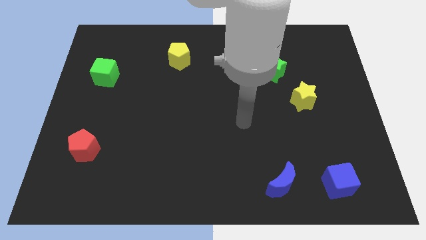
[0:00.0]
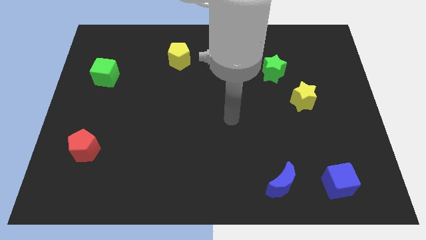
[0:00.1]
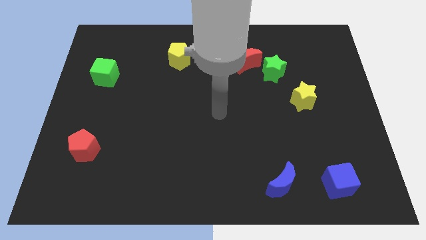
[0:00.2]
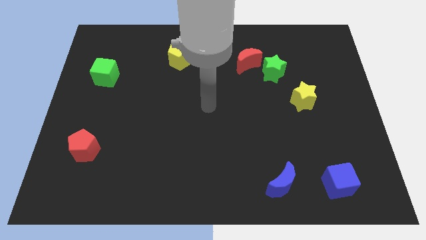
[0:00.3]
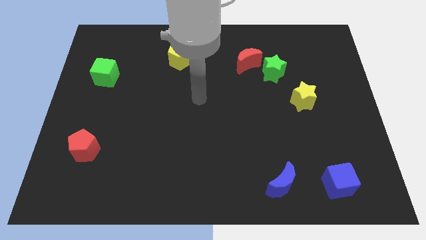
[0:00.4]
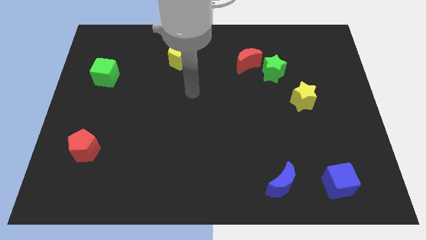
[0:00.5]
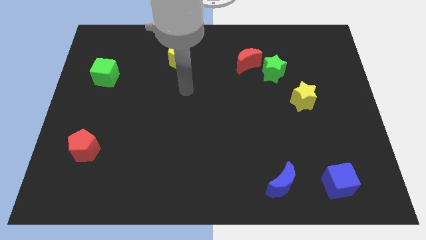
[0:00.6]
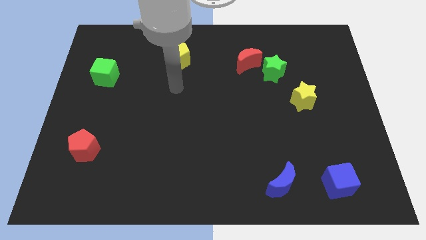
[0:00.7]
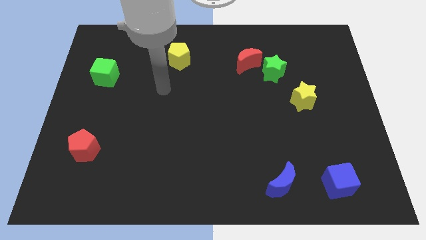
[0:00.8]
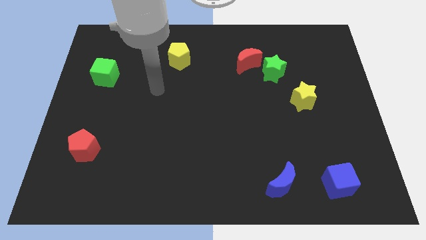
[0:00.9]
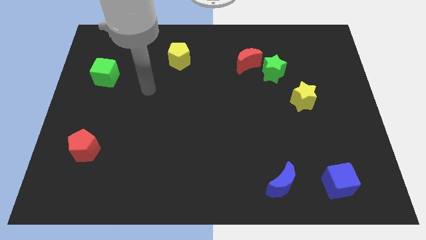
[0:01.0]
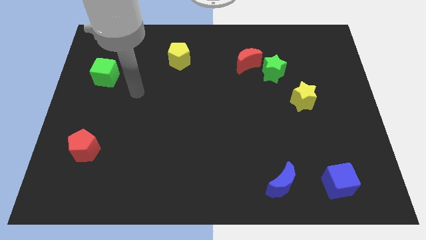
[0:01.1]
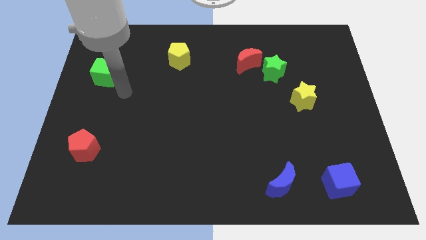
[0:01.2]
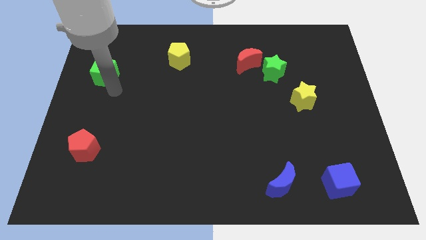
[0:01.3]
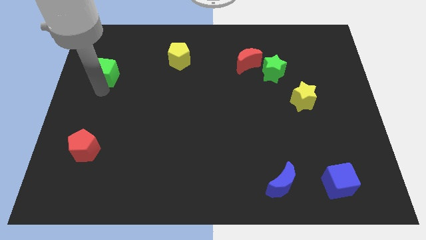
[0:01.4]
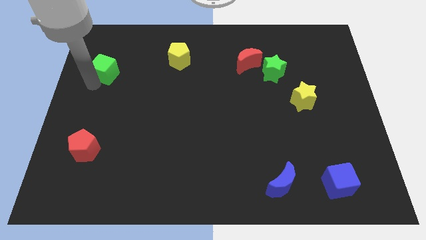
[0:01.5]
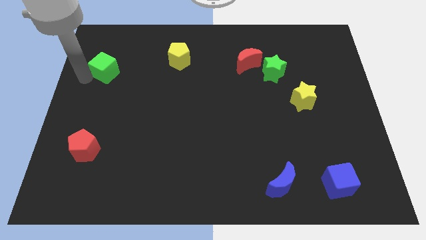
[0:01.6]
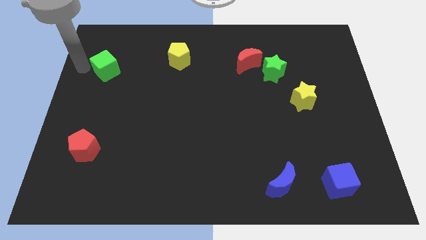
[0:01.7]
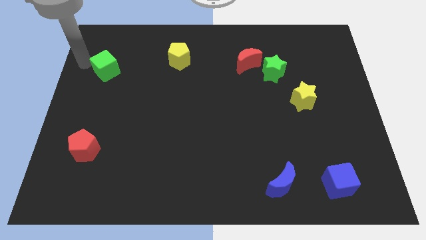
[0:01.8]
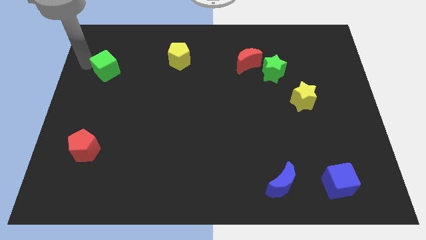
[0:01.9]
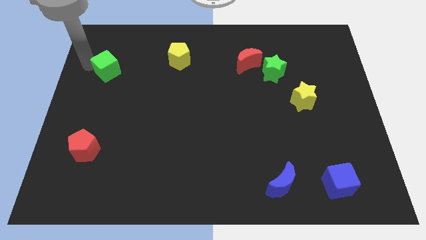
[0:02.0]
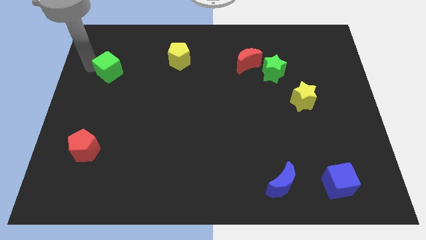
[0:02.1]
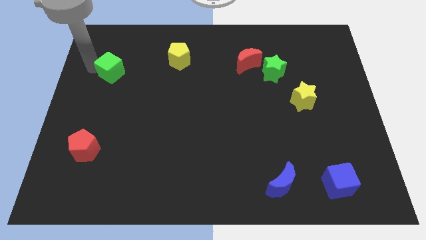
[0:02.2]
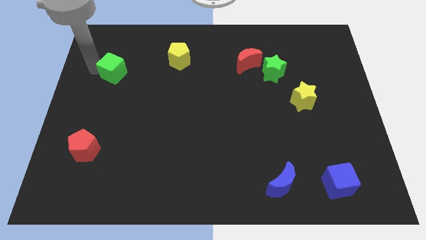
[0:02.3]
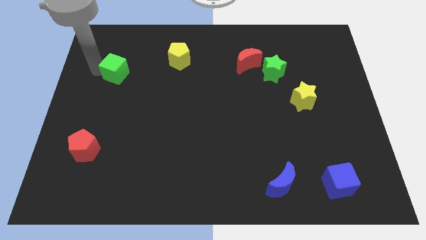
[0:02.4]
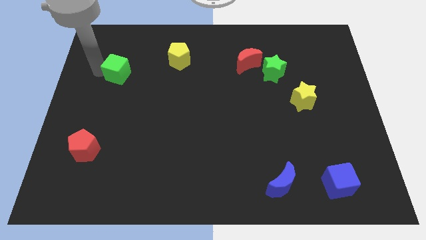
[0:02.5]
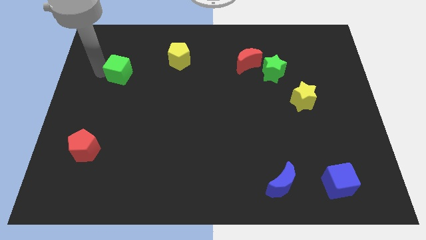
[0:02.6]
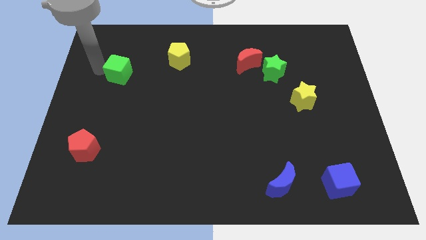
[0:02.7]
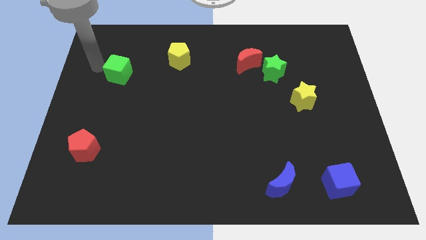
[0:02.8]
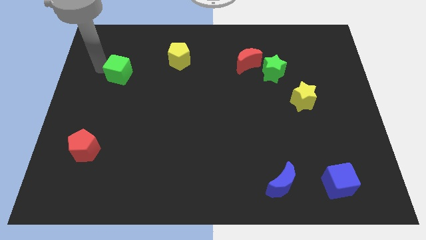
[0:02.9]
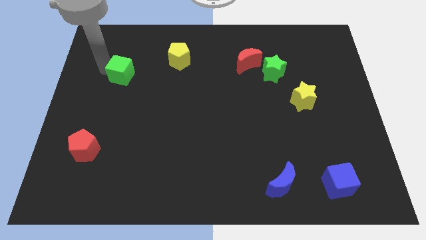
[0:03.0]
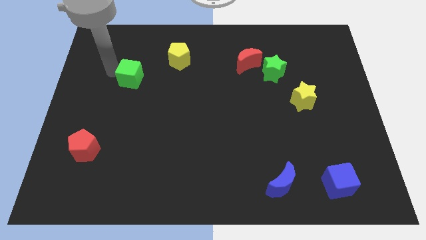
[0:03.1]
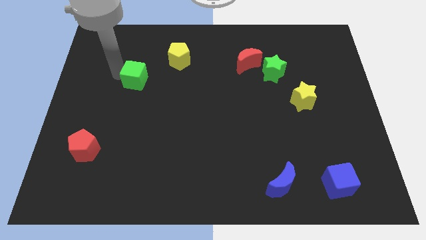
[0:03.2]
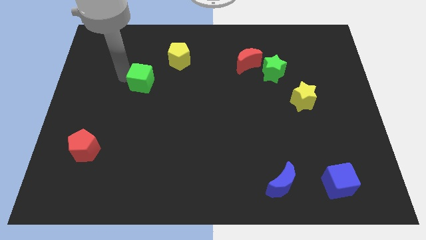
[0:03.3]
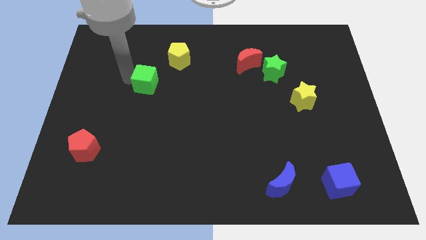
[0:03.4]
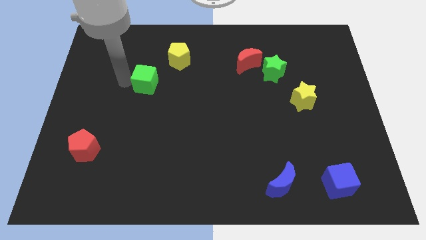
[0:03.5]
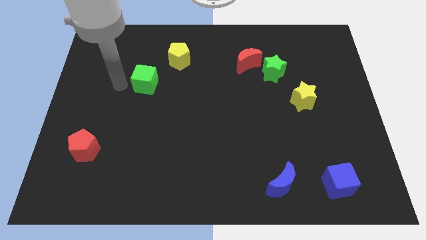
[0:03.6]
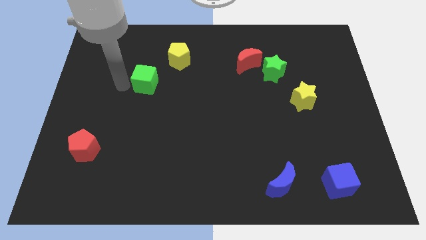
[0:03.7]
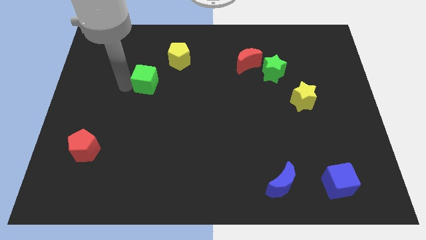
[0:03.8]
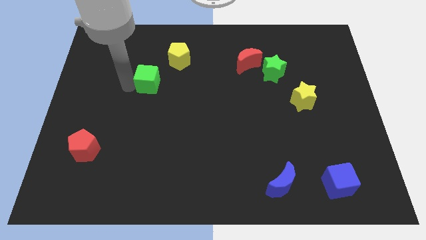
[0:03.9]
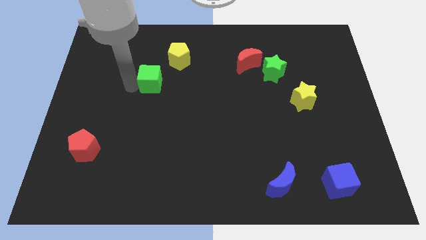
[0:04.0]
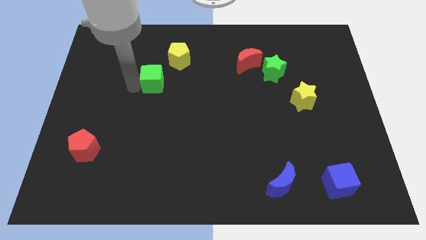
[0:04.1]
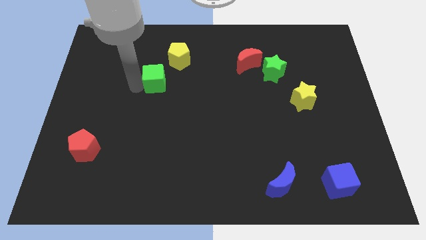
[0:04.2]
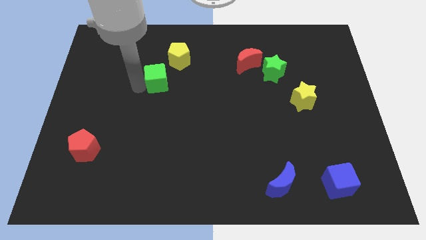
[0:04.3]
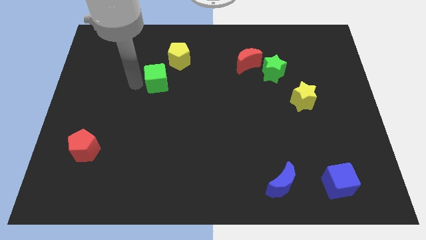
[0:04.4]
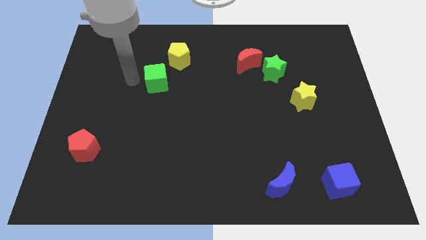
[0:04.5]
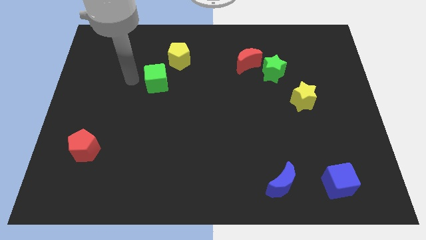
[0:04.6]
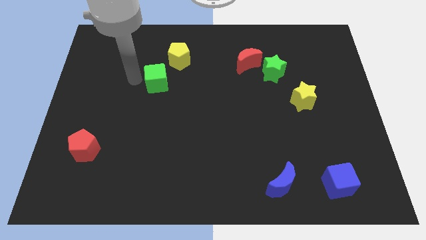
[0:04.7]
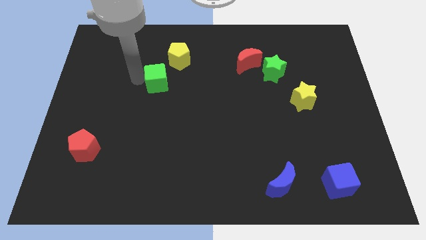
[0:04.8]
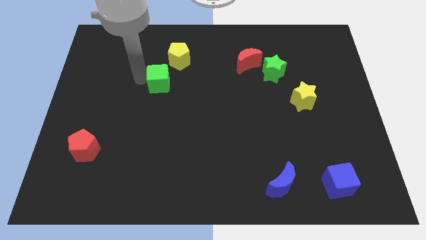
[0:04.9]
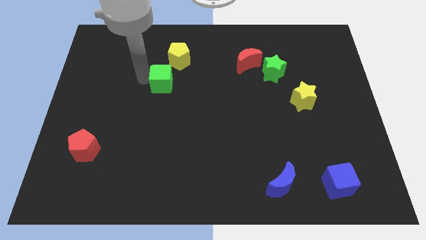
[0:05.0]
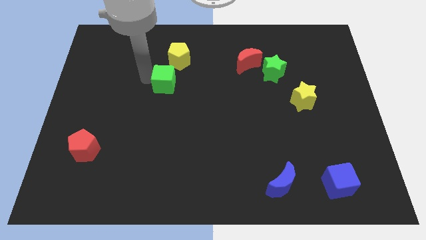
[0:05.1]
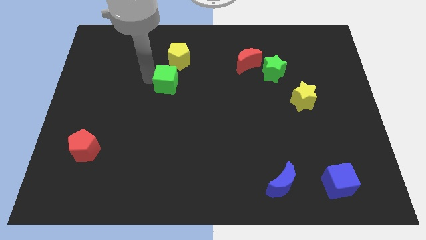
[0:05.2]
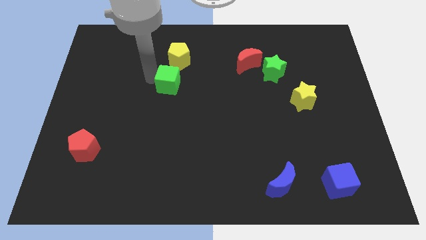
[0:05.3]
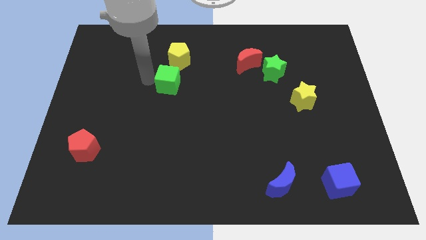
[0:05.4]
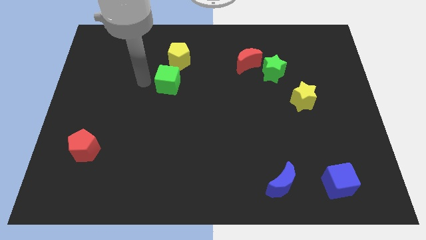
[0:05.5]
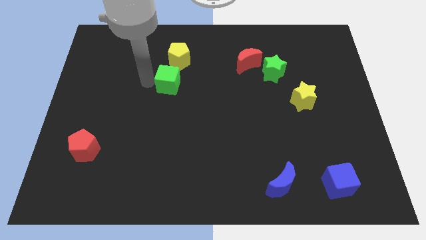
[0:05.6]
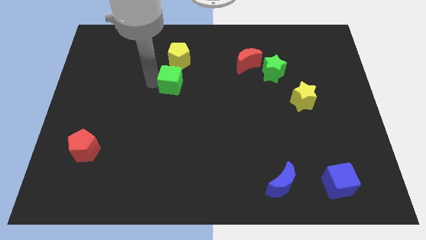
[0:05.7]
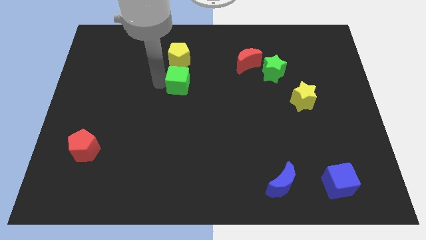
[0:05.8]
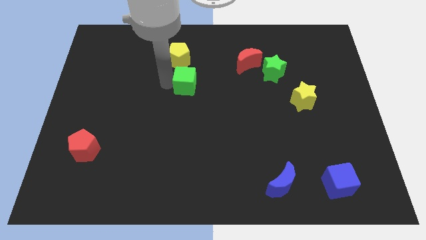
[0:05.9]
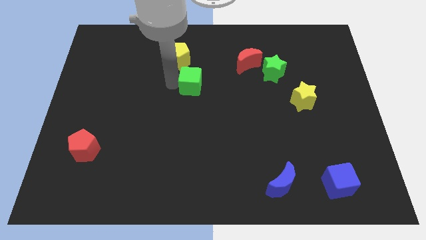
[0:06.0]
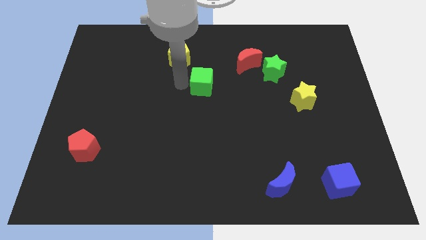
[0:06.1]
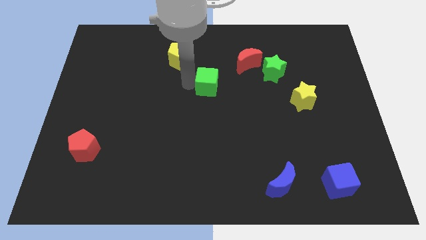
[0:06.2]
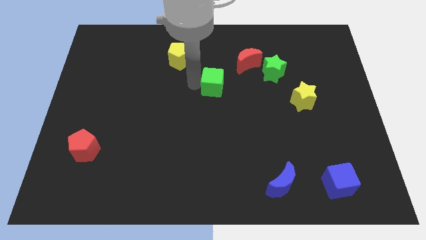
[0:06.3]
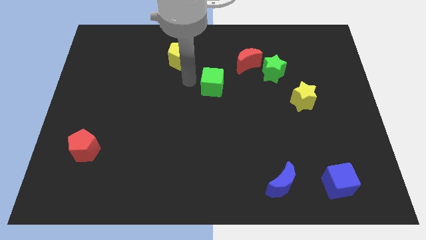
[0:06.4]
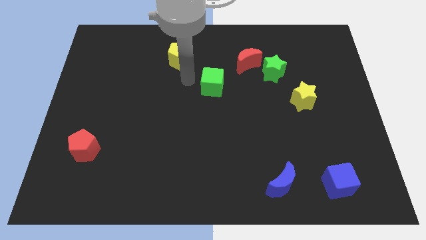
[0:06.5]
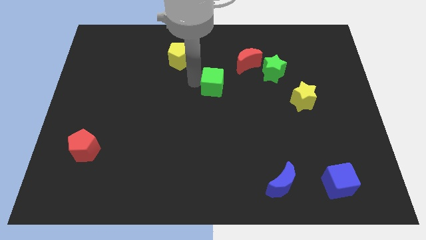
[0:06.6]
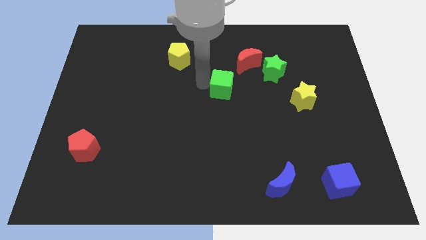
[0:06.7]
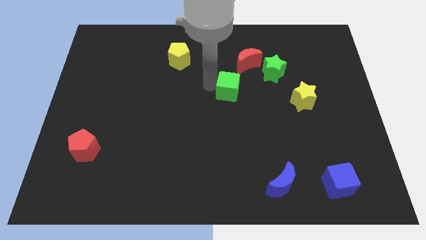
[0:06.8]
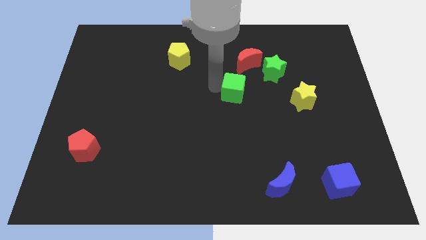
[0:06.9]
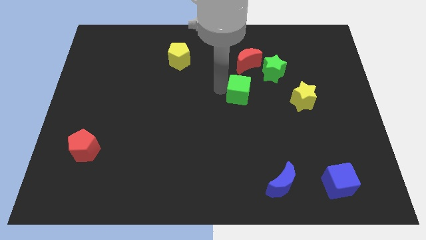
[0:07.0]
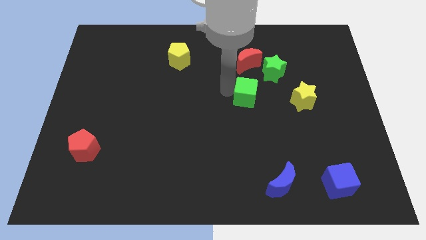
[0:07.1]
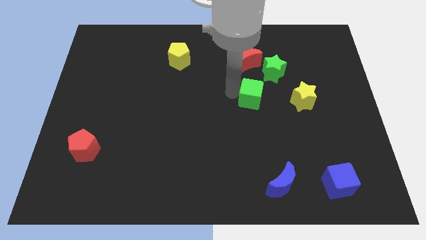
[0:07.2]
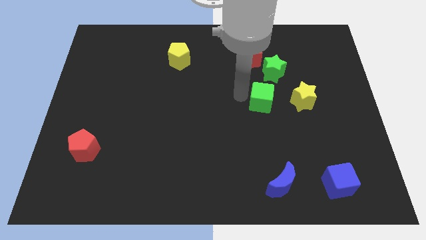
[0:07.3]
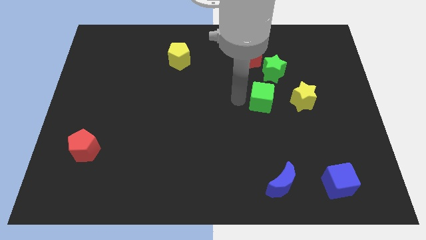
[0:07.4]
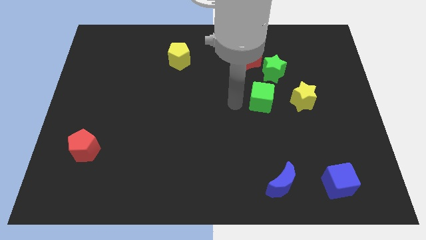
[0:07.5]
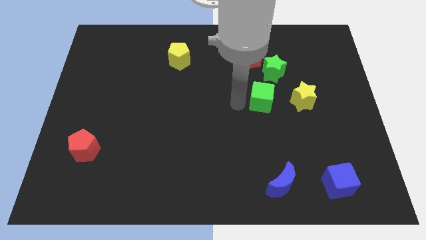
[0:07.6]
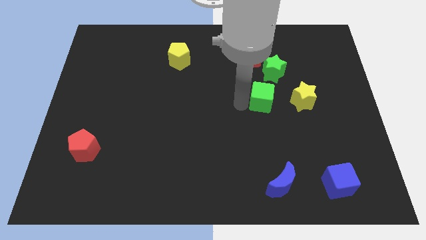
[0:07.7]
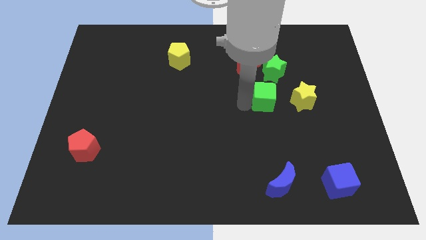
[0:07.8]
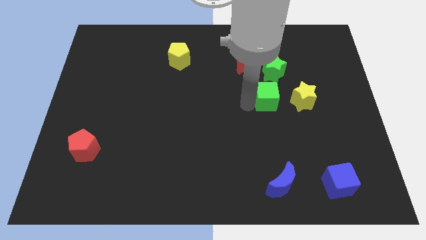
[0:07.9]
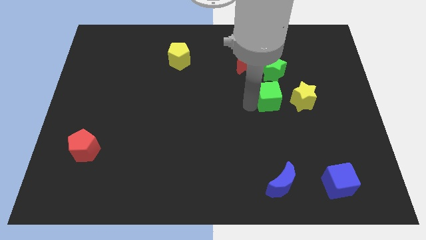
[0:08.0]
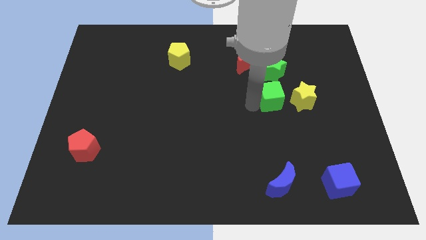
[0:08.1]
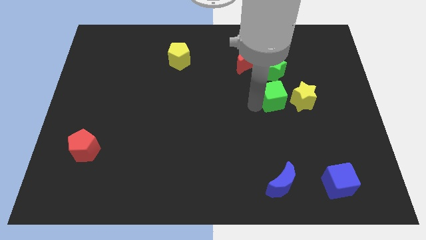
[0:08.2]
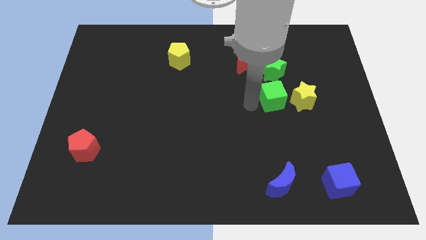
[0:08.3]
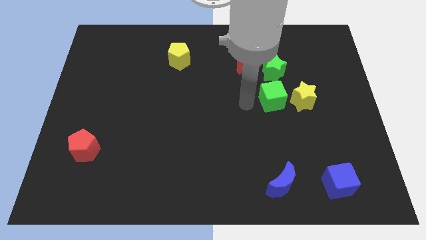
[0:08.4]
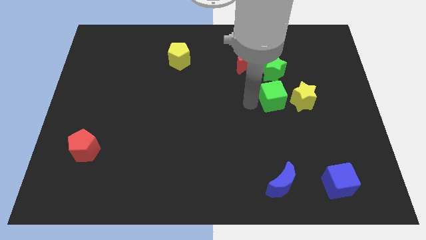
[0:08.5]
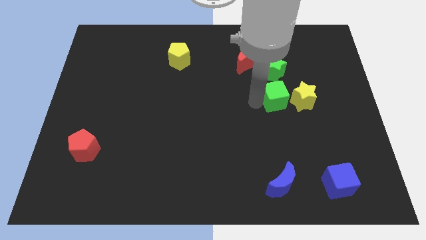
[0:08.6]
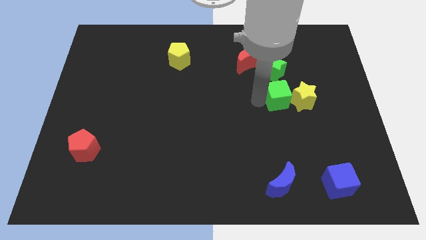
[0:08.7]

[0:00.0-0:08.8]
slide the green cube to the yellow star
